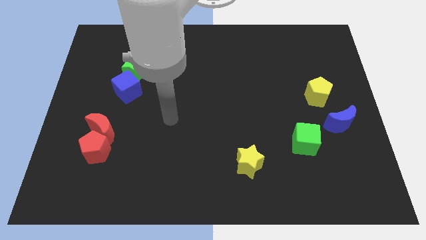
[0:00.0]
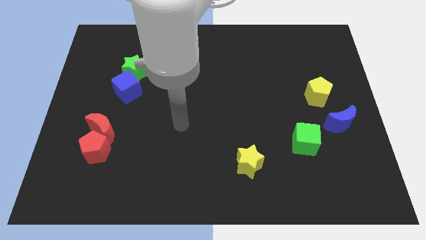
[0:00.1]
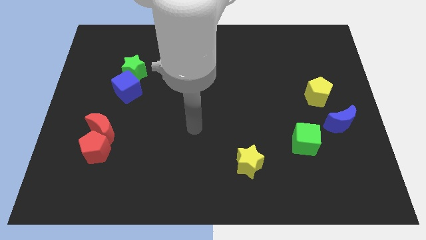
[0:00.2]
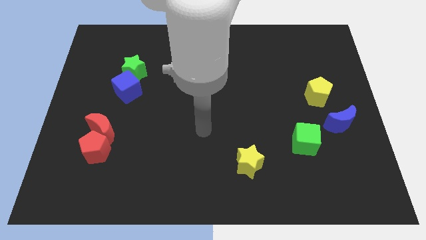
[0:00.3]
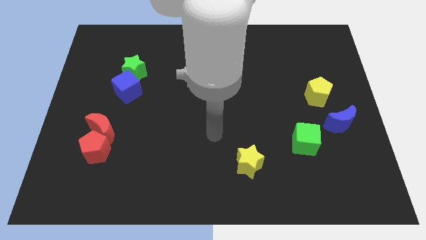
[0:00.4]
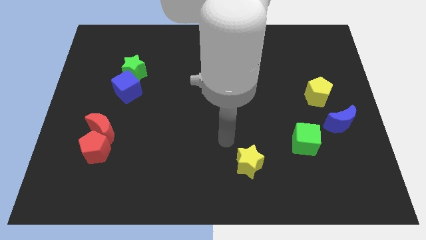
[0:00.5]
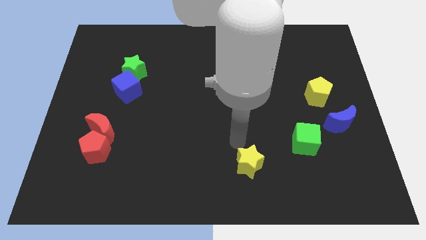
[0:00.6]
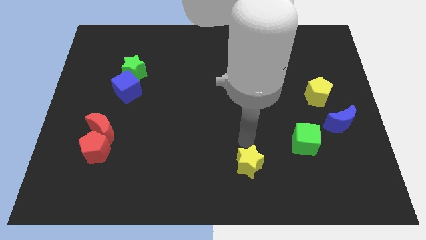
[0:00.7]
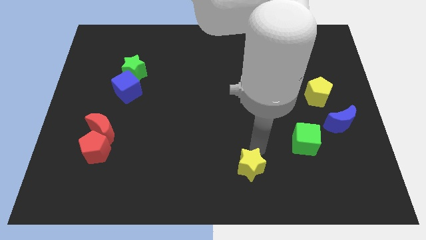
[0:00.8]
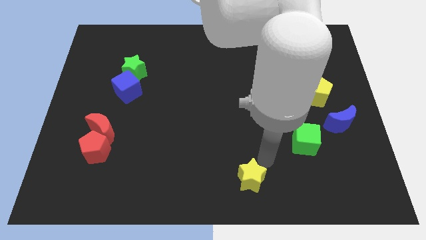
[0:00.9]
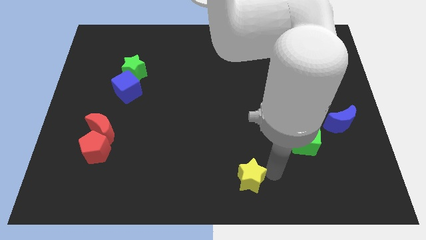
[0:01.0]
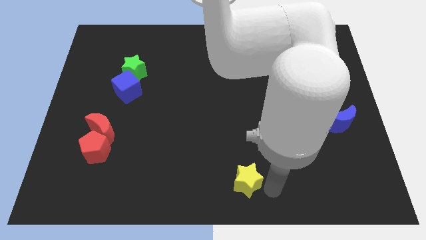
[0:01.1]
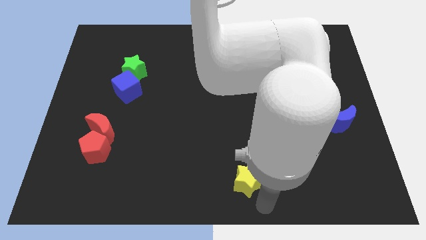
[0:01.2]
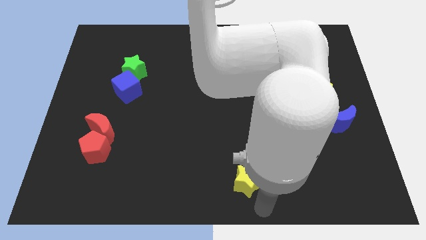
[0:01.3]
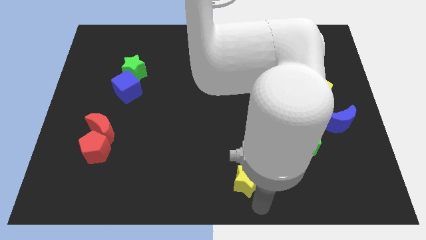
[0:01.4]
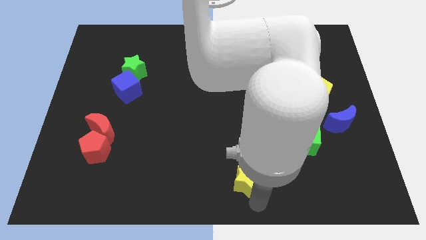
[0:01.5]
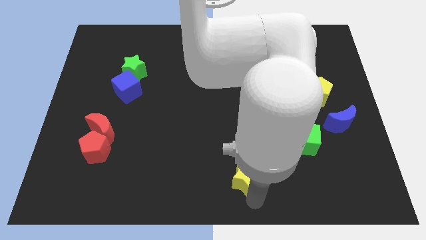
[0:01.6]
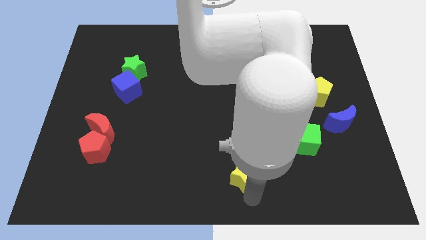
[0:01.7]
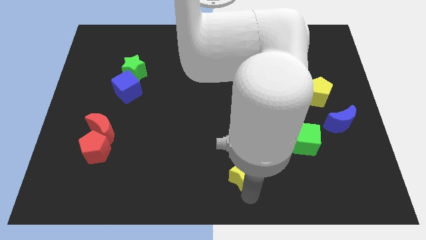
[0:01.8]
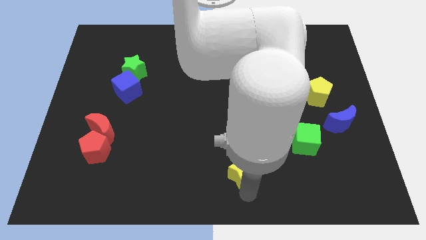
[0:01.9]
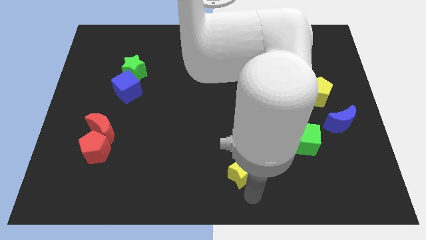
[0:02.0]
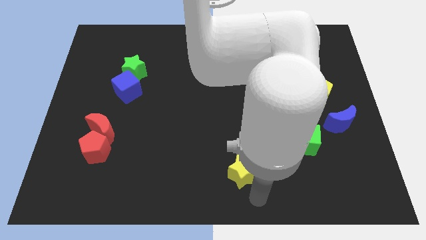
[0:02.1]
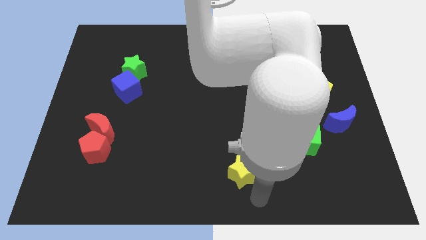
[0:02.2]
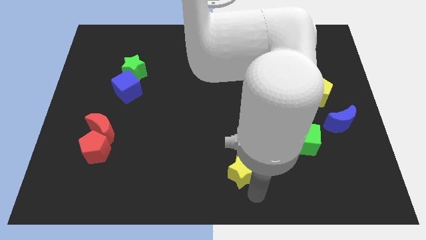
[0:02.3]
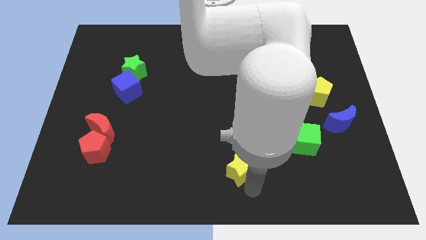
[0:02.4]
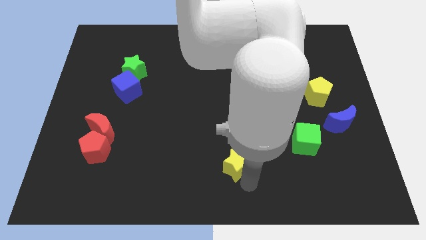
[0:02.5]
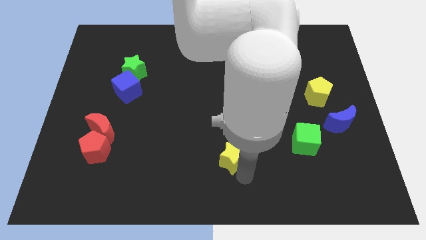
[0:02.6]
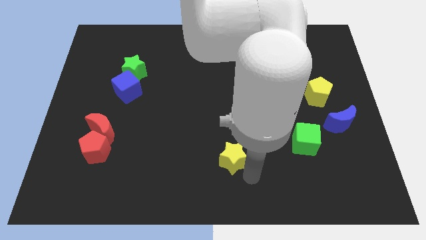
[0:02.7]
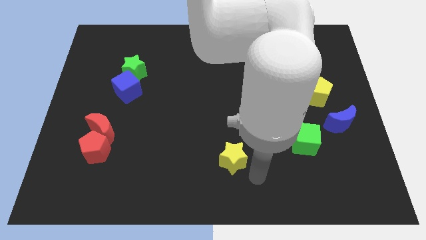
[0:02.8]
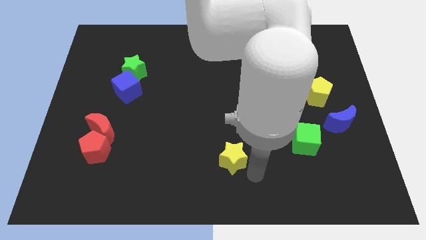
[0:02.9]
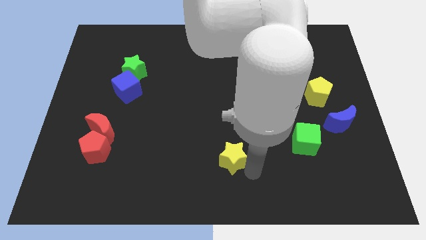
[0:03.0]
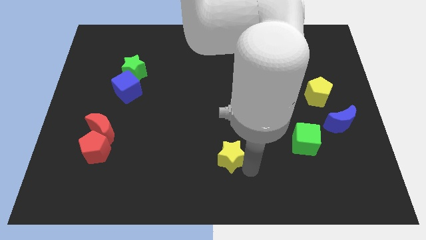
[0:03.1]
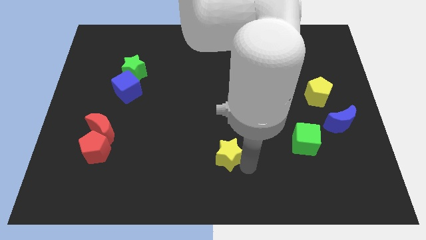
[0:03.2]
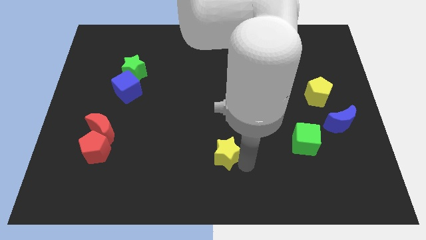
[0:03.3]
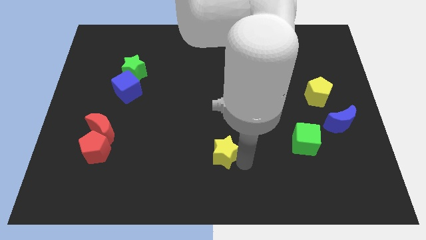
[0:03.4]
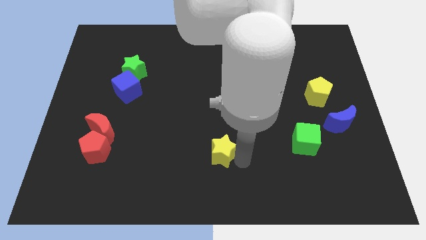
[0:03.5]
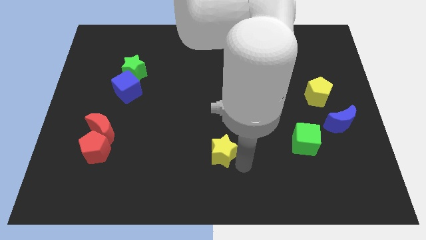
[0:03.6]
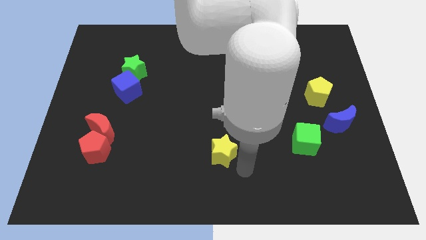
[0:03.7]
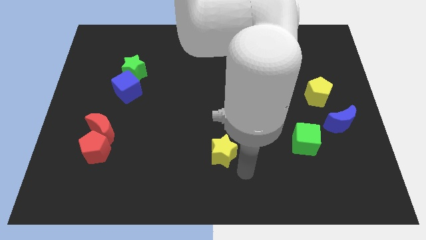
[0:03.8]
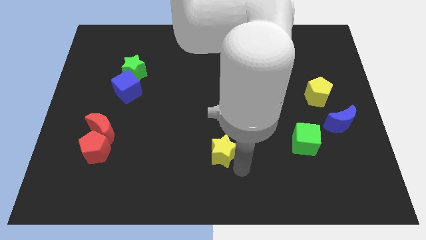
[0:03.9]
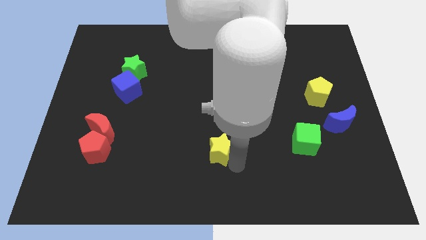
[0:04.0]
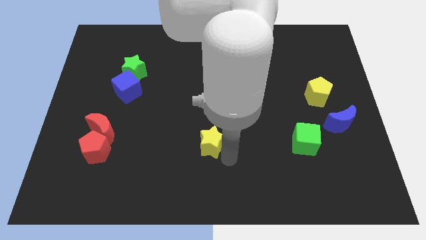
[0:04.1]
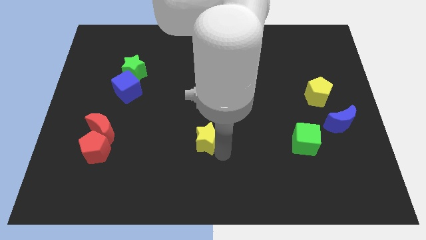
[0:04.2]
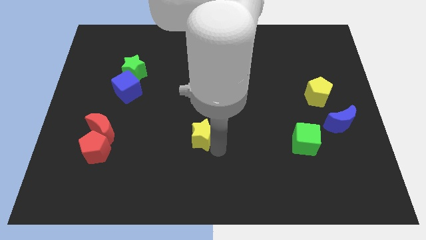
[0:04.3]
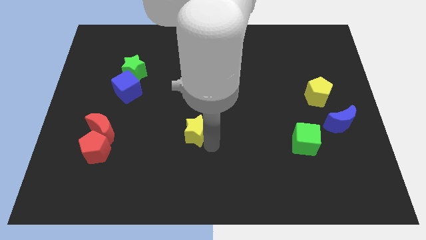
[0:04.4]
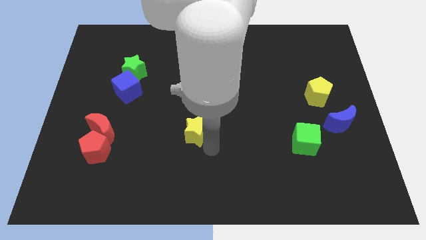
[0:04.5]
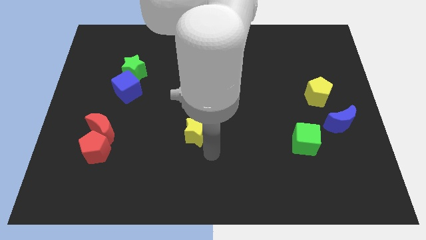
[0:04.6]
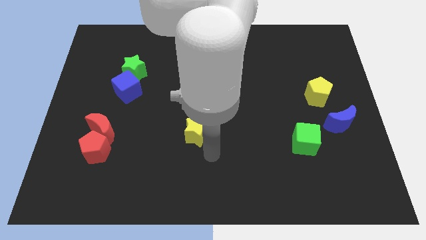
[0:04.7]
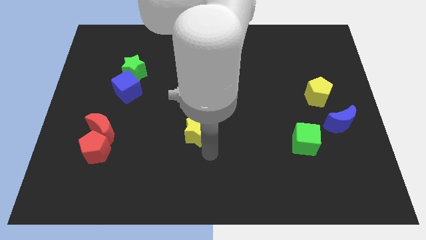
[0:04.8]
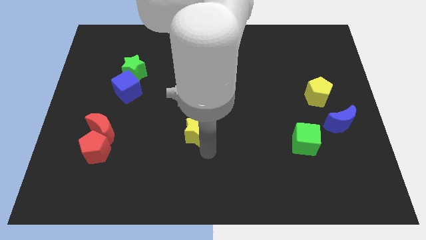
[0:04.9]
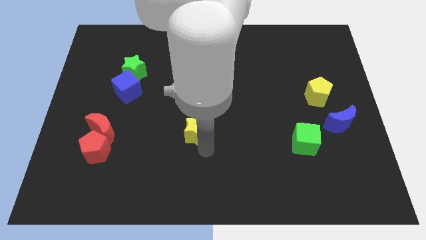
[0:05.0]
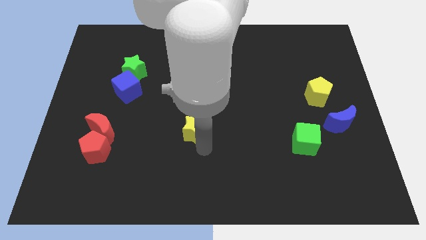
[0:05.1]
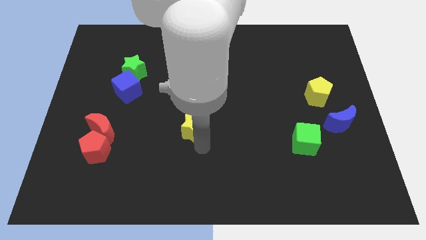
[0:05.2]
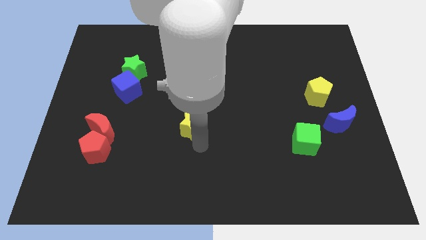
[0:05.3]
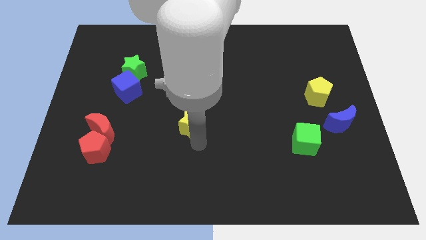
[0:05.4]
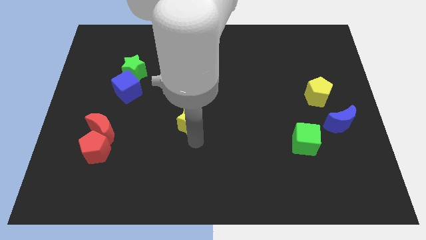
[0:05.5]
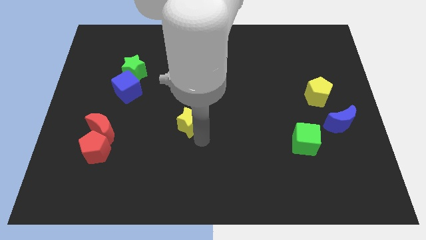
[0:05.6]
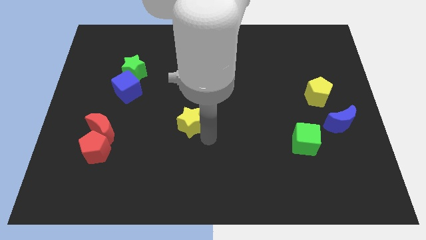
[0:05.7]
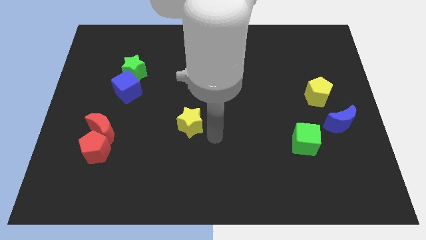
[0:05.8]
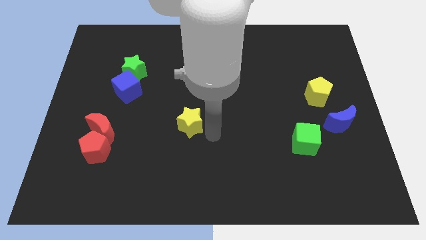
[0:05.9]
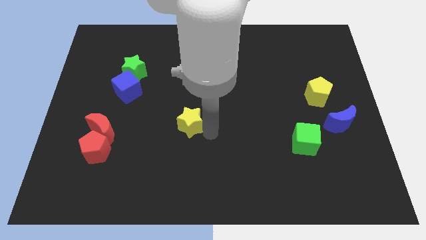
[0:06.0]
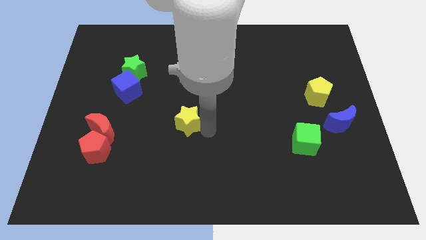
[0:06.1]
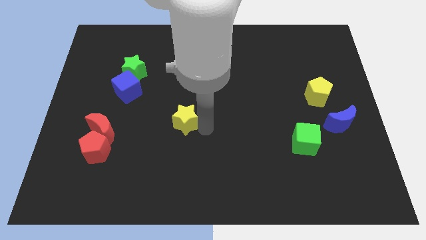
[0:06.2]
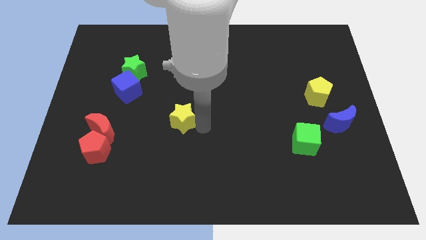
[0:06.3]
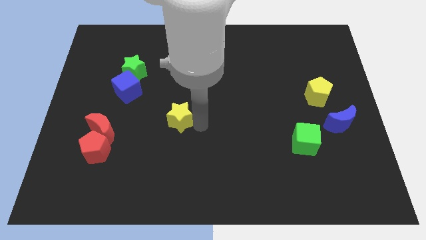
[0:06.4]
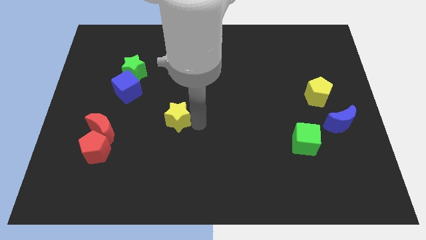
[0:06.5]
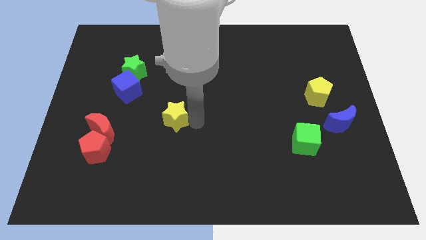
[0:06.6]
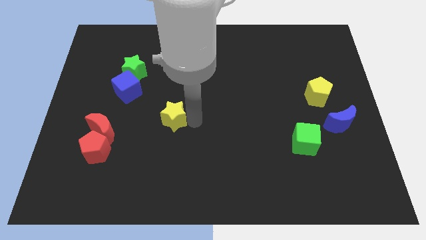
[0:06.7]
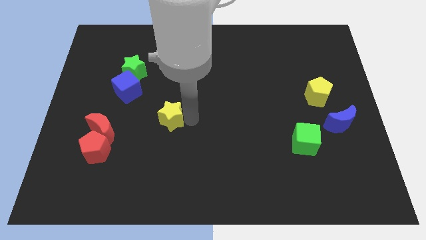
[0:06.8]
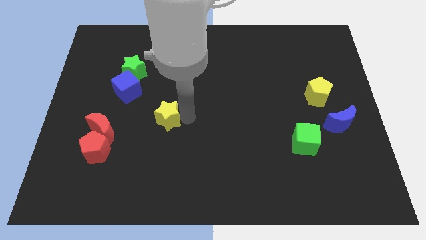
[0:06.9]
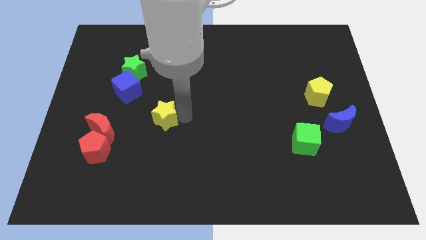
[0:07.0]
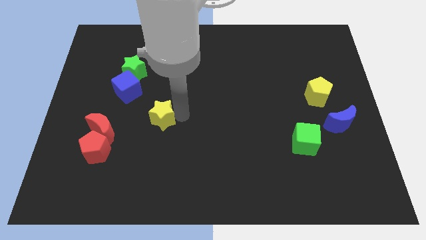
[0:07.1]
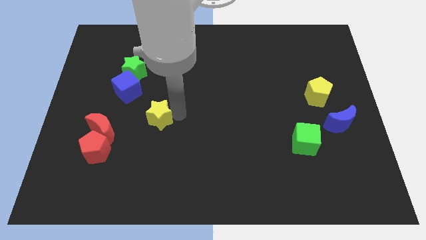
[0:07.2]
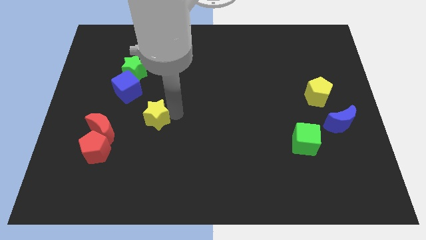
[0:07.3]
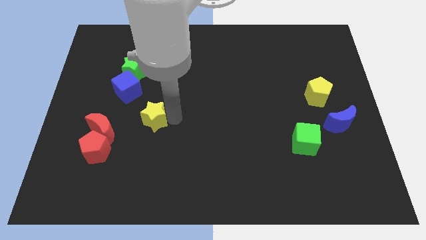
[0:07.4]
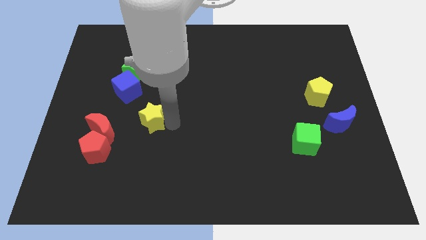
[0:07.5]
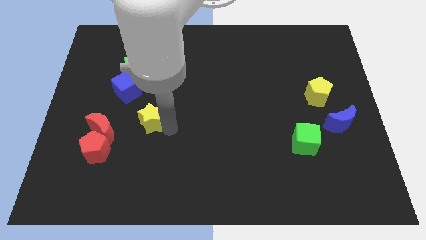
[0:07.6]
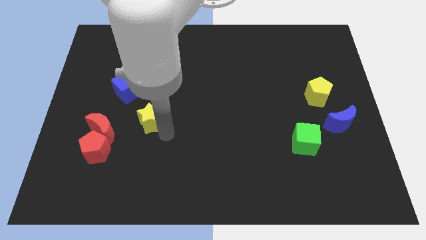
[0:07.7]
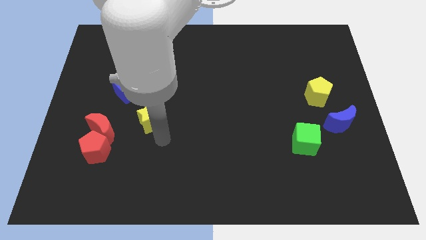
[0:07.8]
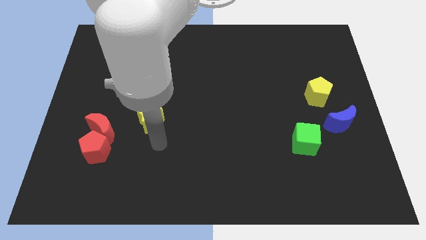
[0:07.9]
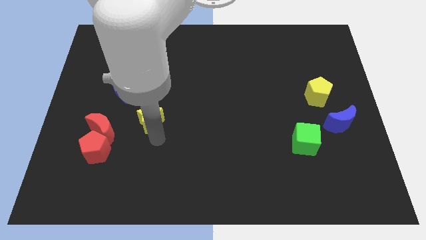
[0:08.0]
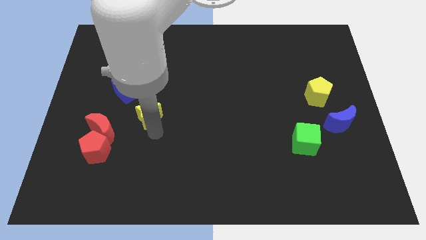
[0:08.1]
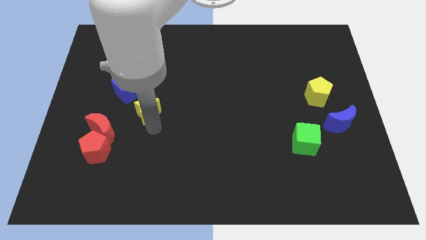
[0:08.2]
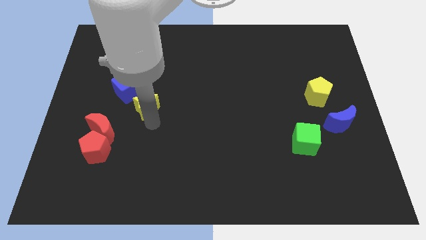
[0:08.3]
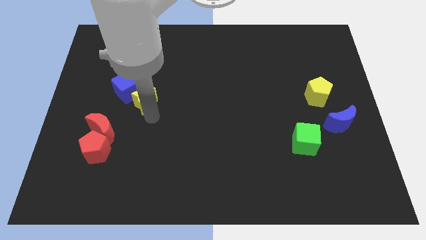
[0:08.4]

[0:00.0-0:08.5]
push the yellow star towards the blue cube
